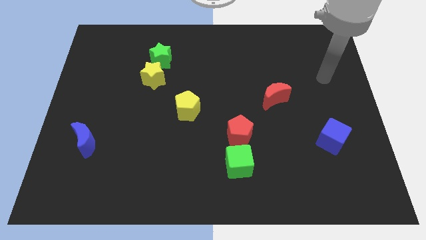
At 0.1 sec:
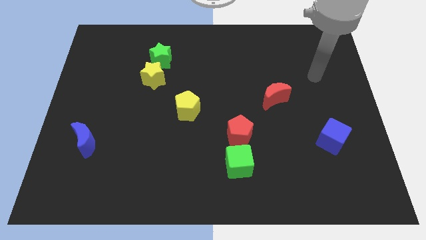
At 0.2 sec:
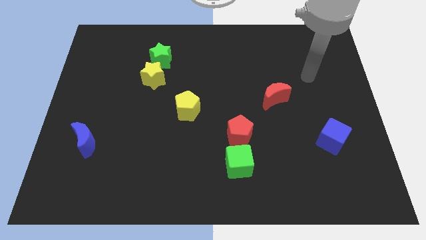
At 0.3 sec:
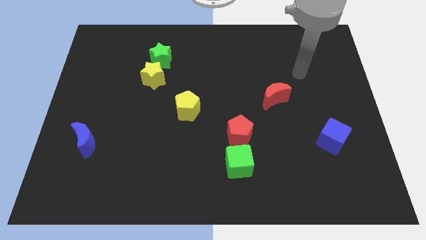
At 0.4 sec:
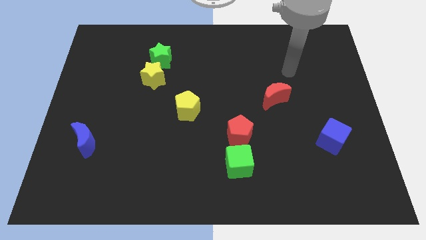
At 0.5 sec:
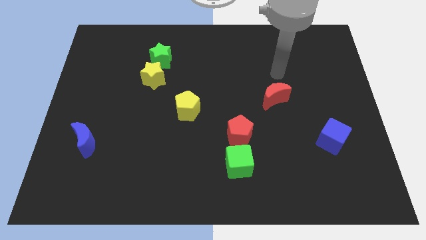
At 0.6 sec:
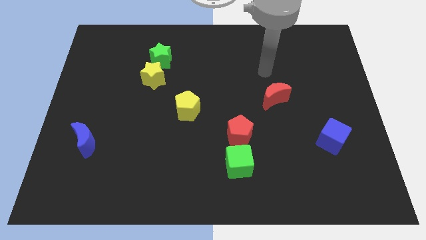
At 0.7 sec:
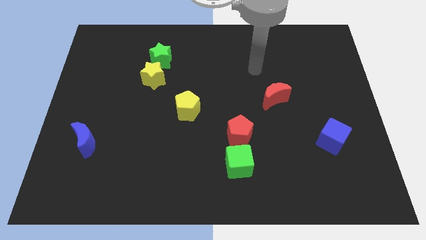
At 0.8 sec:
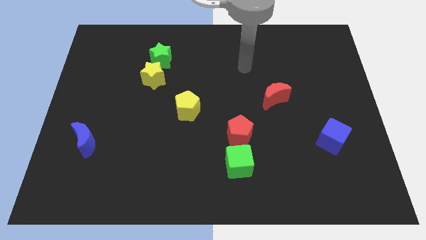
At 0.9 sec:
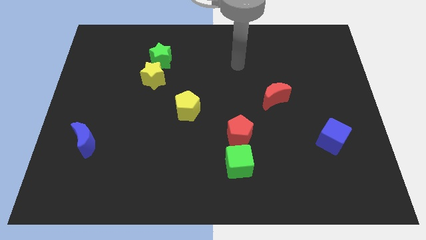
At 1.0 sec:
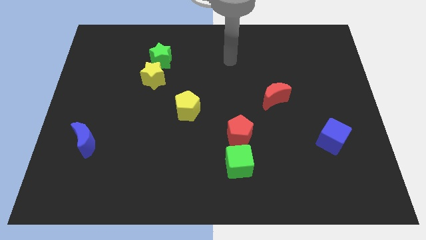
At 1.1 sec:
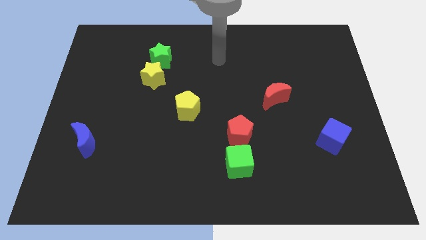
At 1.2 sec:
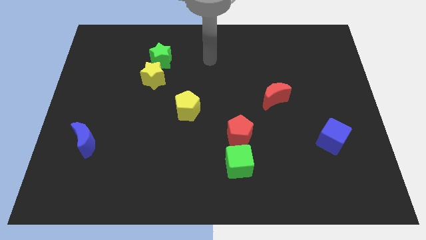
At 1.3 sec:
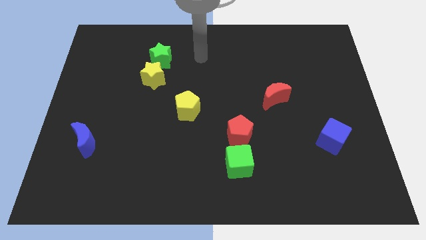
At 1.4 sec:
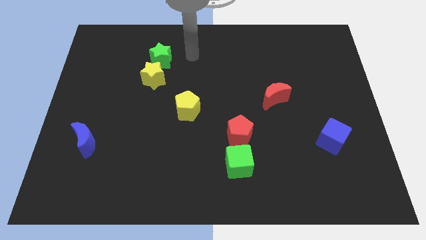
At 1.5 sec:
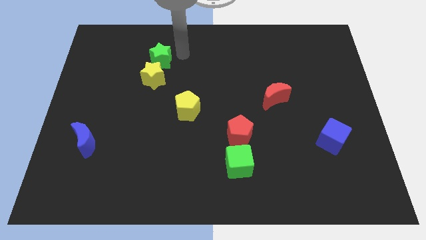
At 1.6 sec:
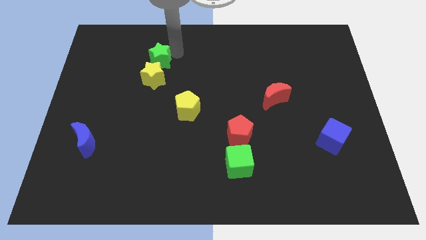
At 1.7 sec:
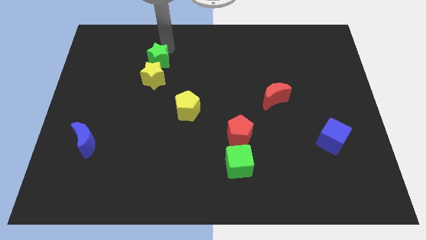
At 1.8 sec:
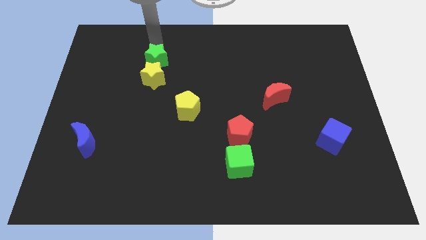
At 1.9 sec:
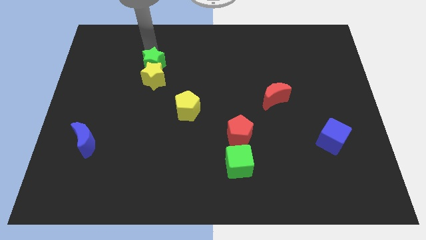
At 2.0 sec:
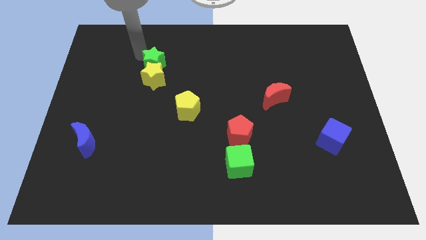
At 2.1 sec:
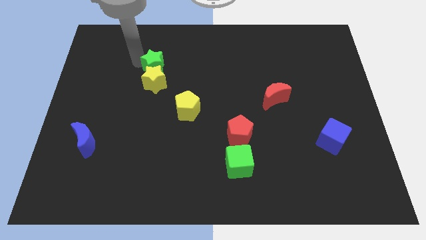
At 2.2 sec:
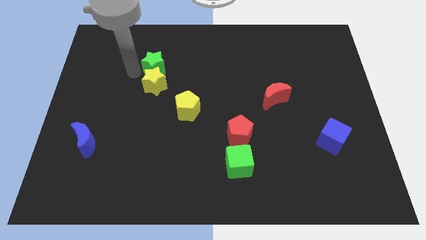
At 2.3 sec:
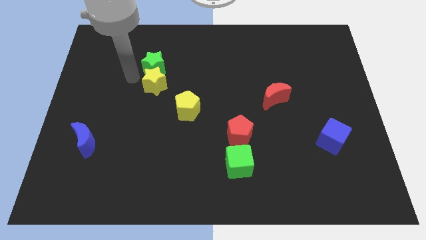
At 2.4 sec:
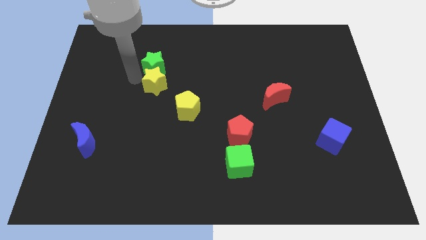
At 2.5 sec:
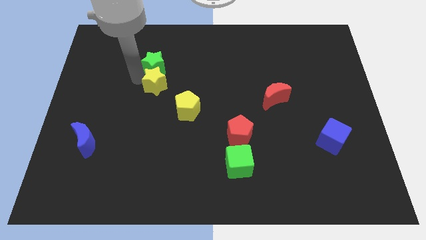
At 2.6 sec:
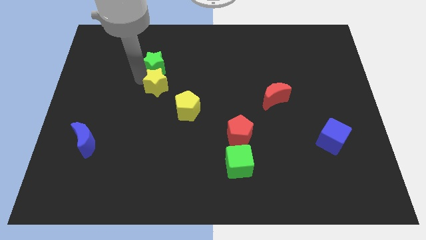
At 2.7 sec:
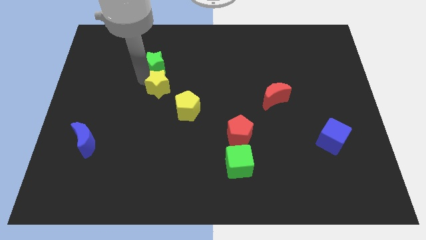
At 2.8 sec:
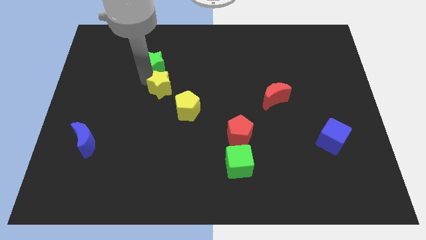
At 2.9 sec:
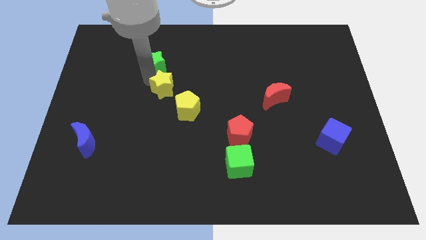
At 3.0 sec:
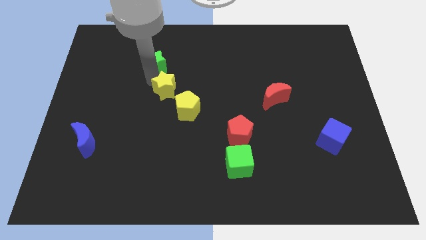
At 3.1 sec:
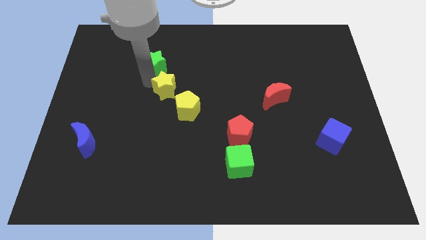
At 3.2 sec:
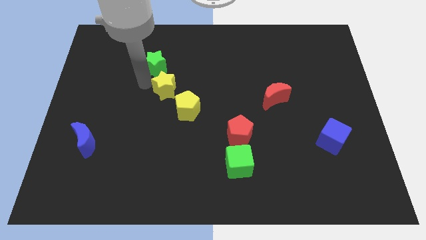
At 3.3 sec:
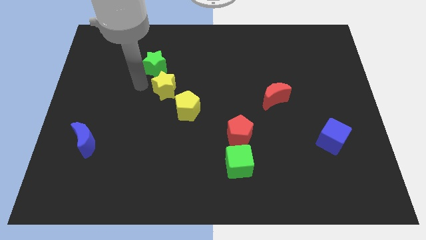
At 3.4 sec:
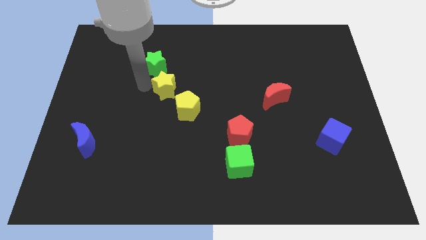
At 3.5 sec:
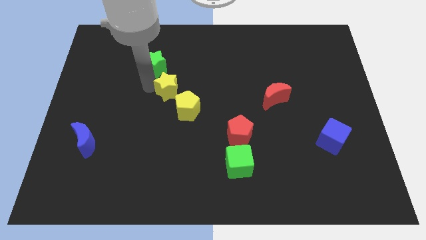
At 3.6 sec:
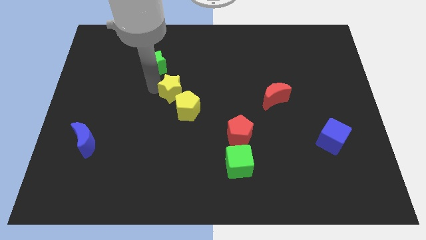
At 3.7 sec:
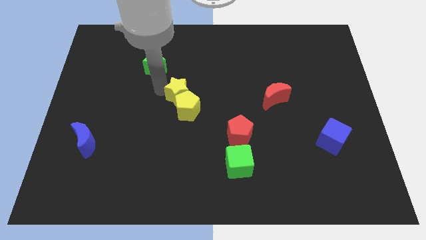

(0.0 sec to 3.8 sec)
slightly push the yellow star downwards and then right

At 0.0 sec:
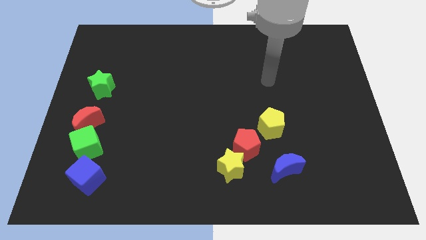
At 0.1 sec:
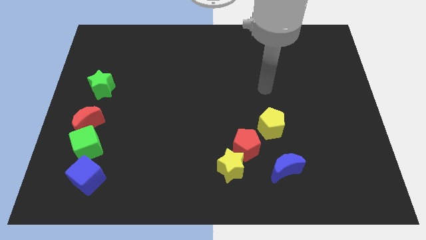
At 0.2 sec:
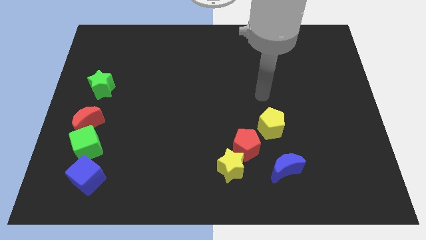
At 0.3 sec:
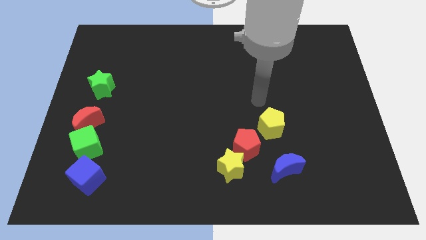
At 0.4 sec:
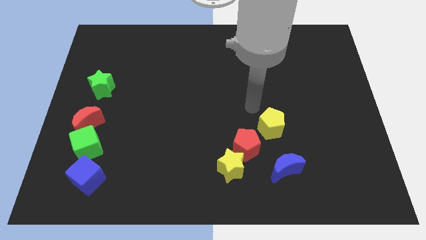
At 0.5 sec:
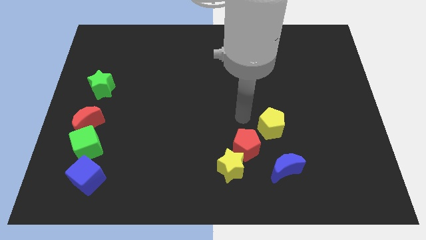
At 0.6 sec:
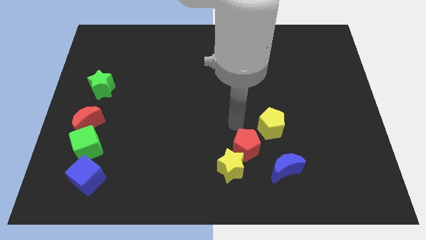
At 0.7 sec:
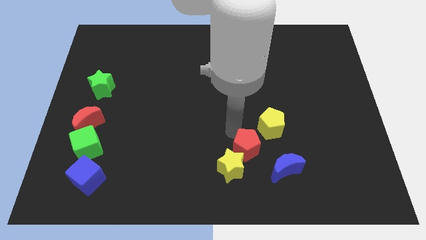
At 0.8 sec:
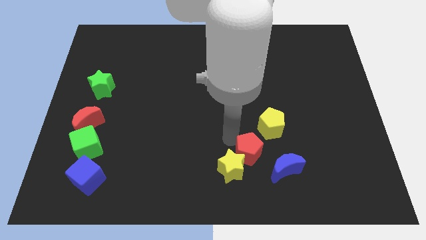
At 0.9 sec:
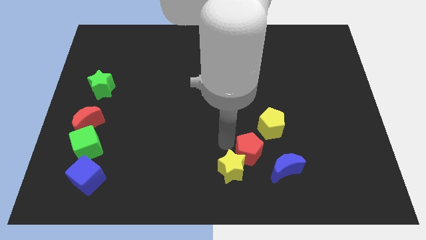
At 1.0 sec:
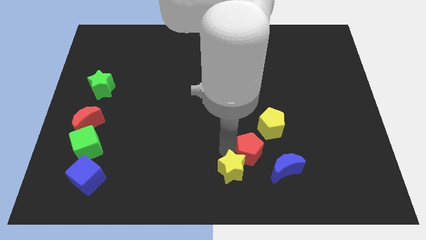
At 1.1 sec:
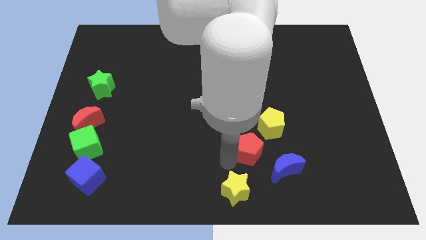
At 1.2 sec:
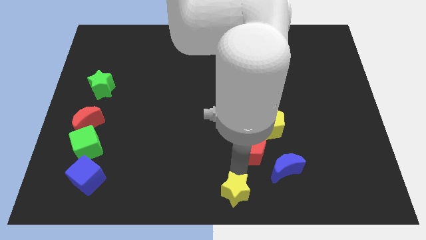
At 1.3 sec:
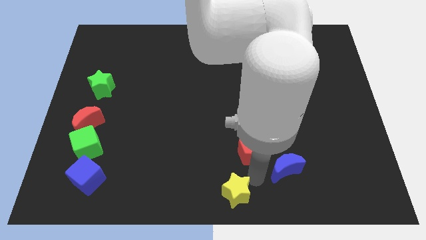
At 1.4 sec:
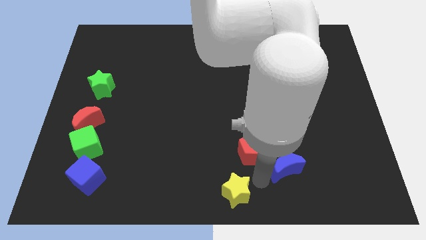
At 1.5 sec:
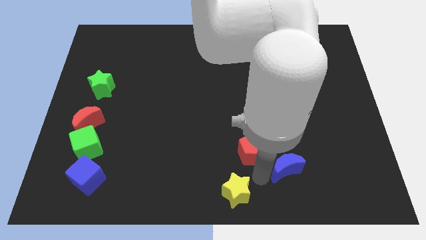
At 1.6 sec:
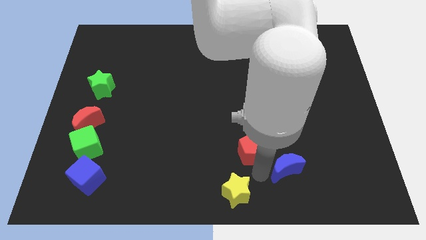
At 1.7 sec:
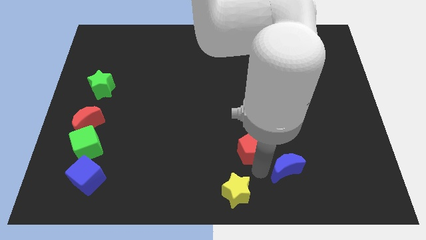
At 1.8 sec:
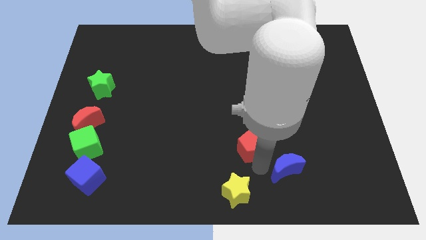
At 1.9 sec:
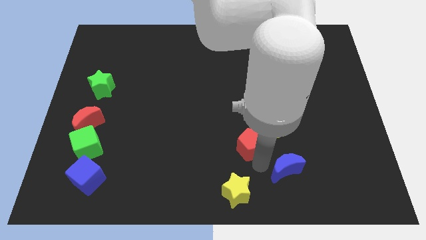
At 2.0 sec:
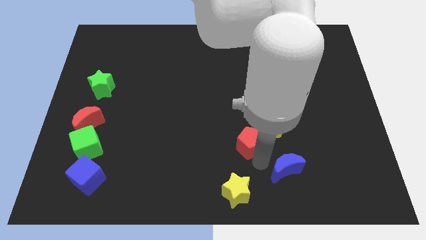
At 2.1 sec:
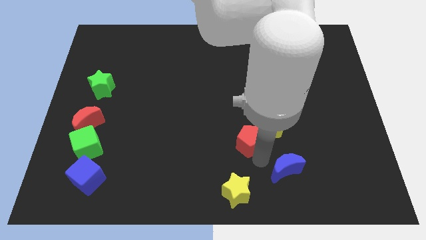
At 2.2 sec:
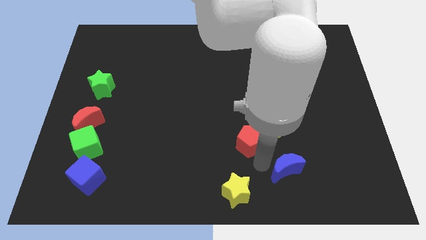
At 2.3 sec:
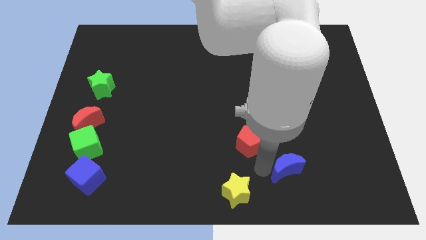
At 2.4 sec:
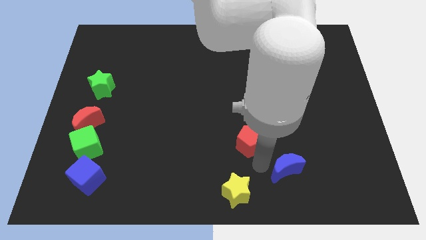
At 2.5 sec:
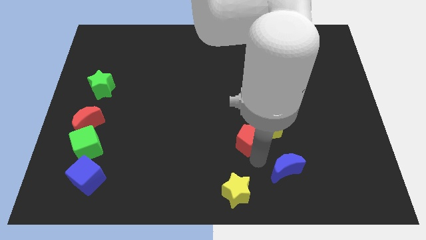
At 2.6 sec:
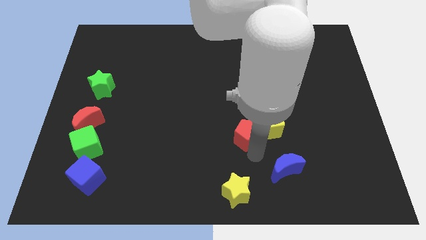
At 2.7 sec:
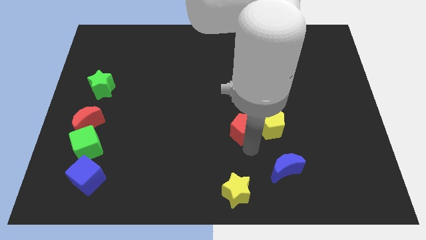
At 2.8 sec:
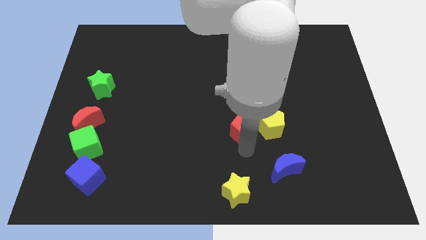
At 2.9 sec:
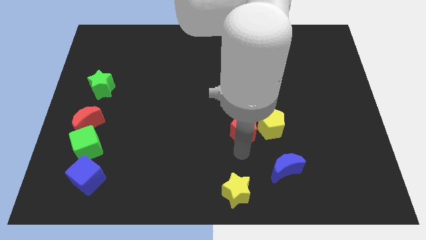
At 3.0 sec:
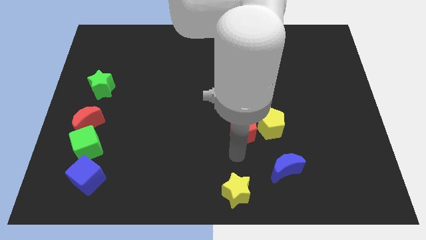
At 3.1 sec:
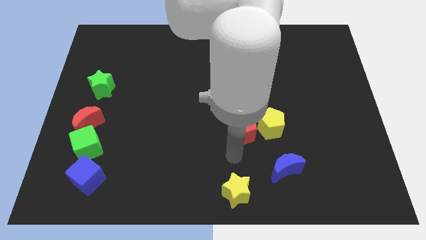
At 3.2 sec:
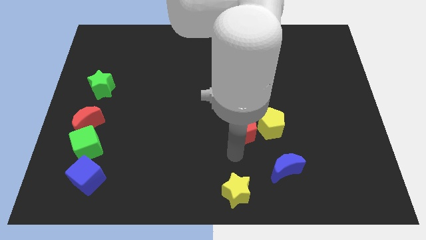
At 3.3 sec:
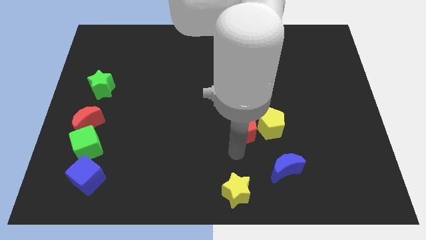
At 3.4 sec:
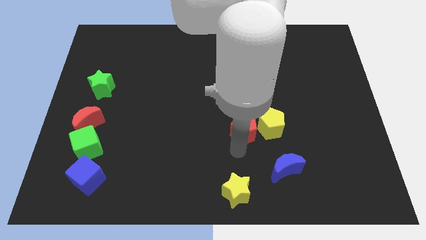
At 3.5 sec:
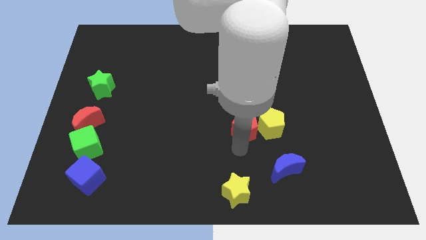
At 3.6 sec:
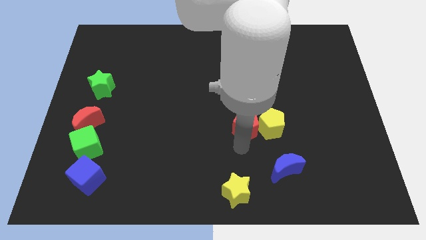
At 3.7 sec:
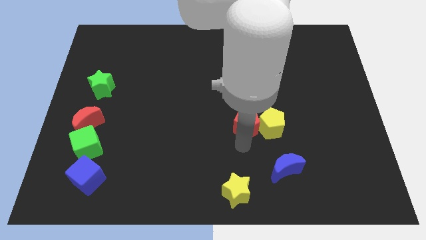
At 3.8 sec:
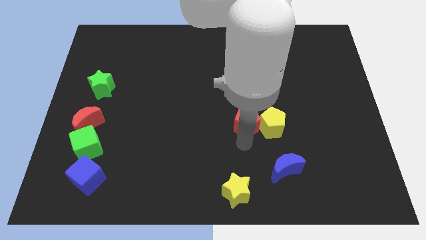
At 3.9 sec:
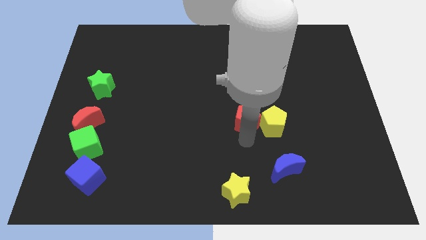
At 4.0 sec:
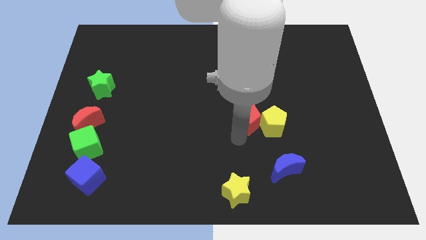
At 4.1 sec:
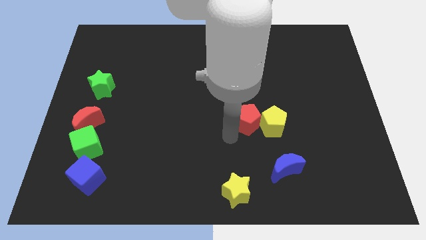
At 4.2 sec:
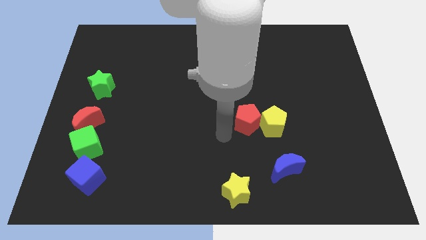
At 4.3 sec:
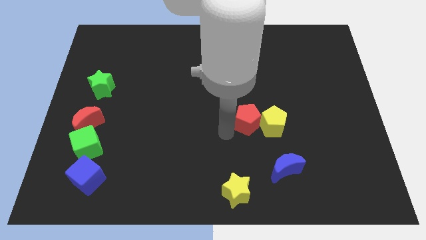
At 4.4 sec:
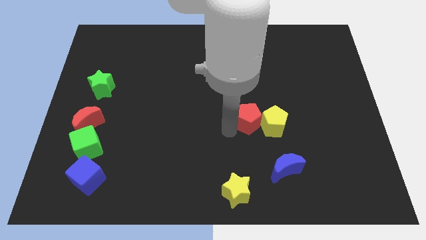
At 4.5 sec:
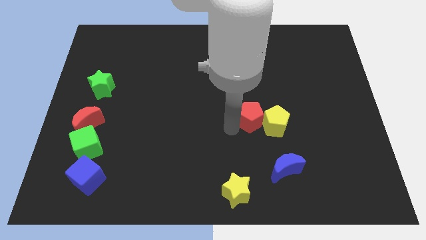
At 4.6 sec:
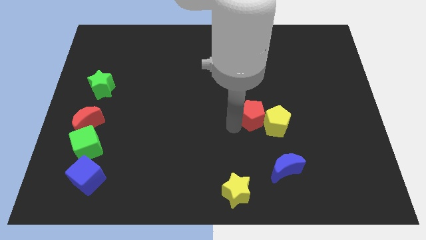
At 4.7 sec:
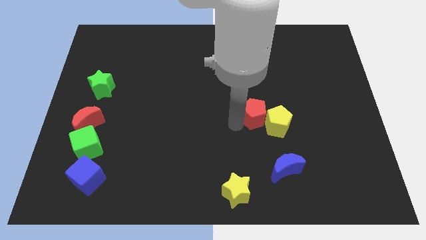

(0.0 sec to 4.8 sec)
move the red pentagon up and to the right a little
